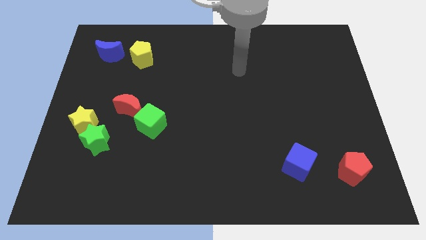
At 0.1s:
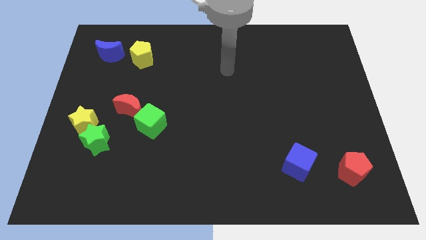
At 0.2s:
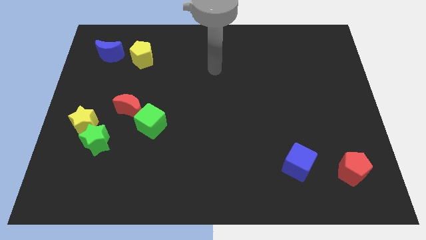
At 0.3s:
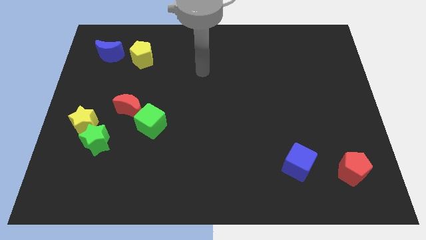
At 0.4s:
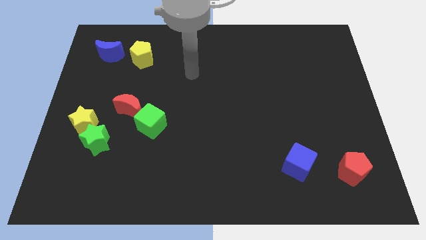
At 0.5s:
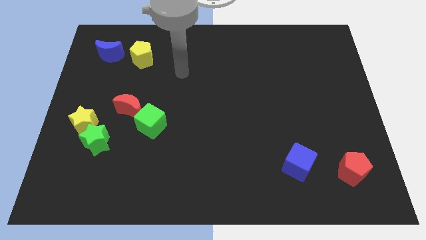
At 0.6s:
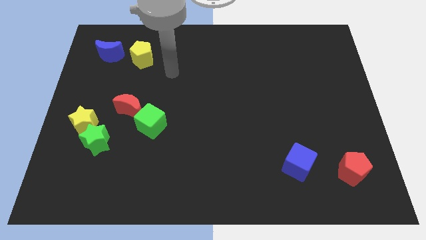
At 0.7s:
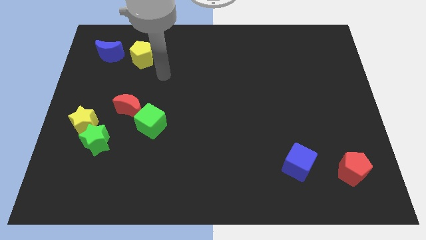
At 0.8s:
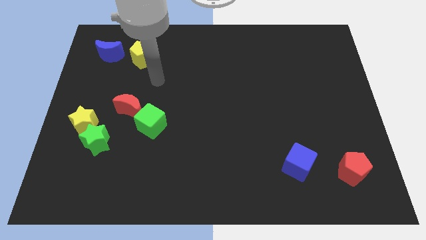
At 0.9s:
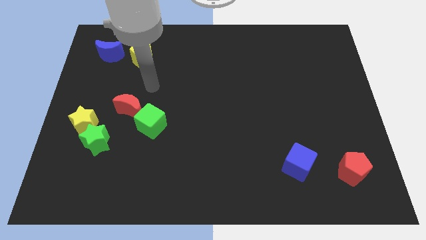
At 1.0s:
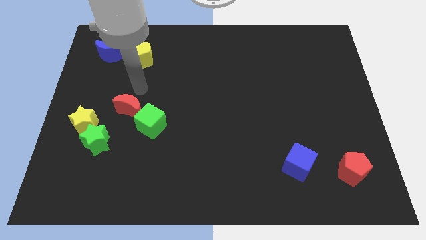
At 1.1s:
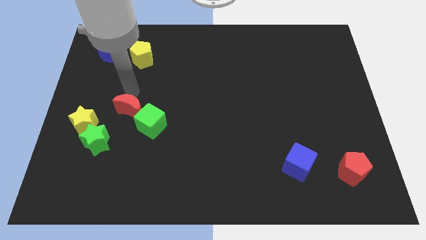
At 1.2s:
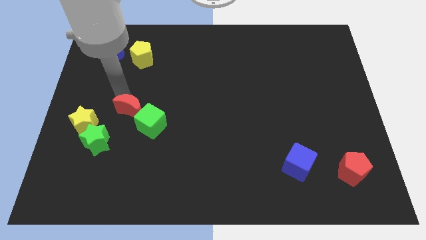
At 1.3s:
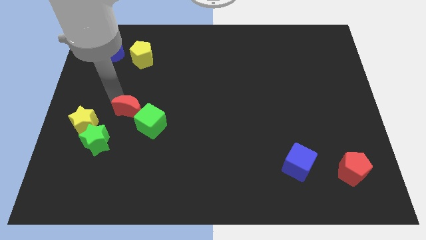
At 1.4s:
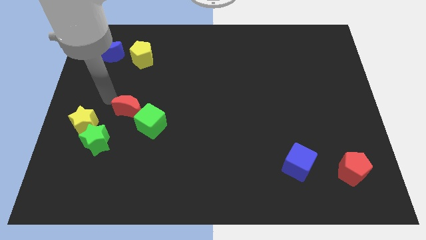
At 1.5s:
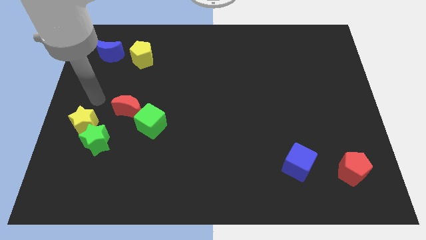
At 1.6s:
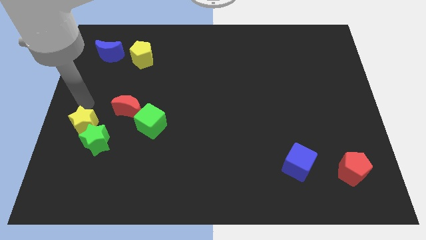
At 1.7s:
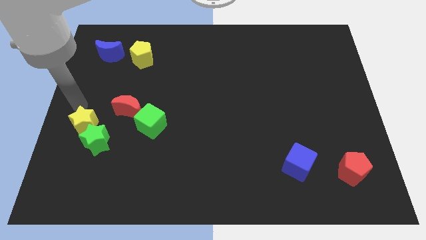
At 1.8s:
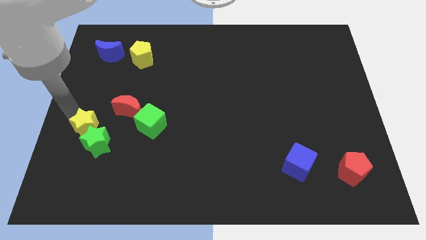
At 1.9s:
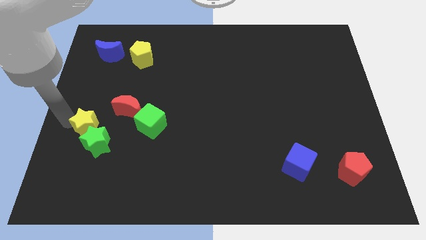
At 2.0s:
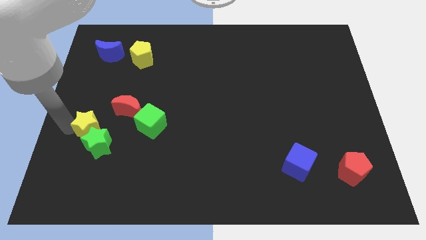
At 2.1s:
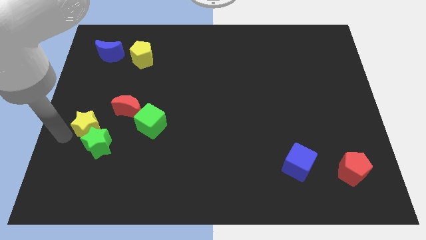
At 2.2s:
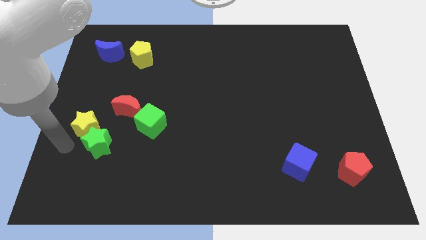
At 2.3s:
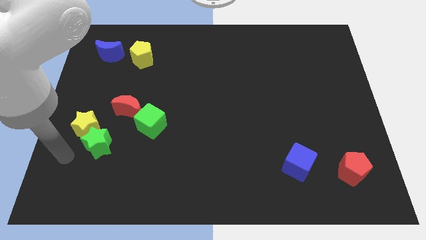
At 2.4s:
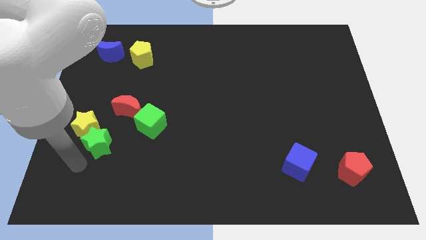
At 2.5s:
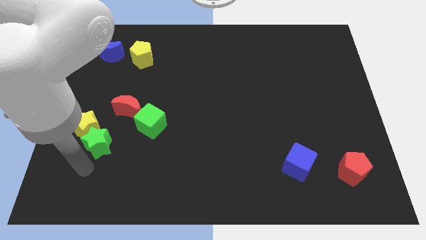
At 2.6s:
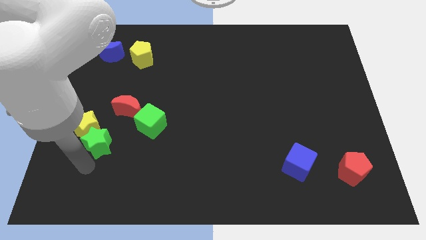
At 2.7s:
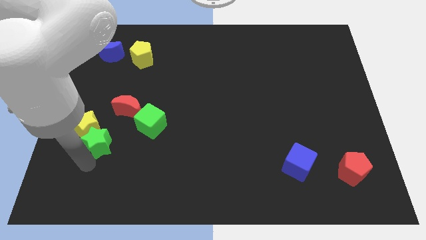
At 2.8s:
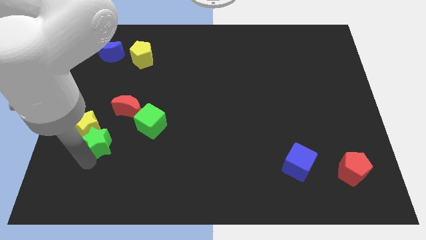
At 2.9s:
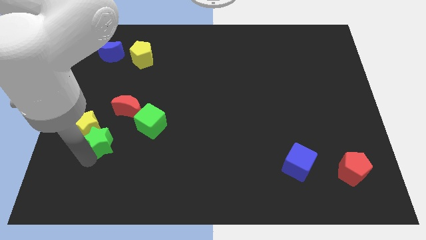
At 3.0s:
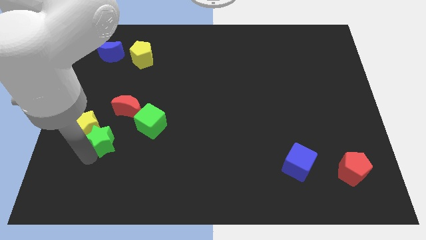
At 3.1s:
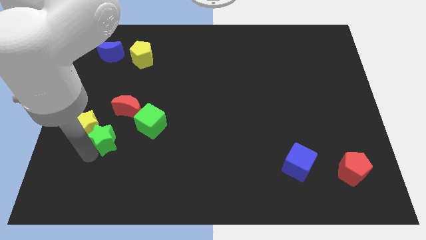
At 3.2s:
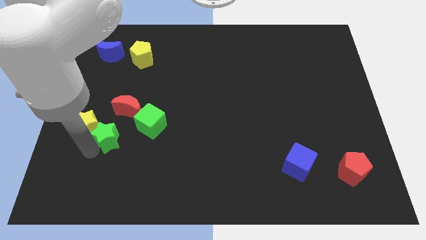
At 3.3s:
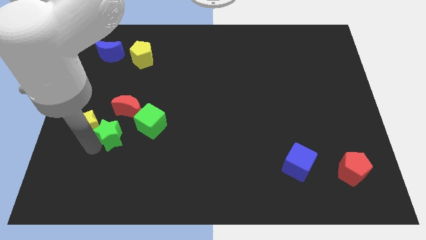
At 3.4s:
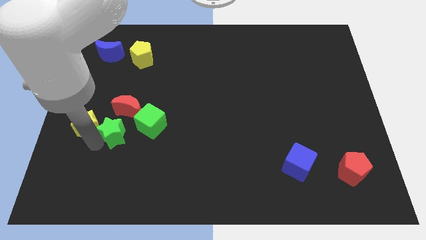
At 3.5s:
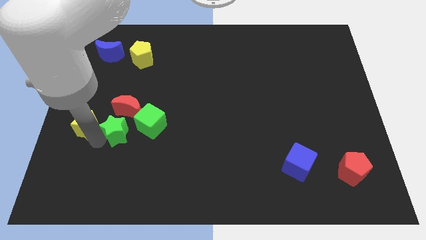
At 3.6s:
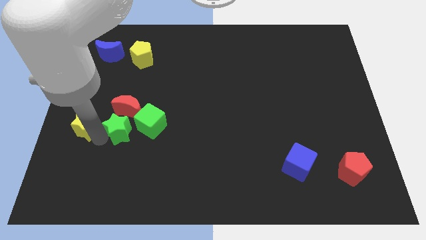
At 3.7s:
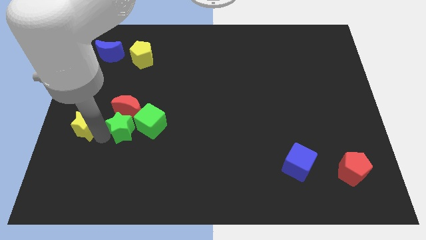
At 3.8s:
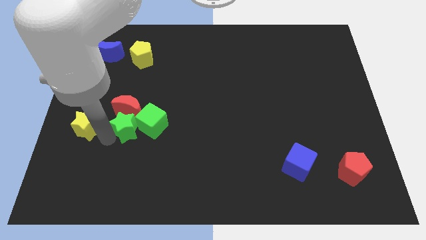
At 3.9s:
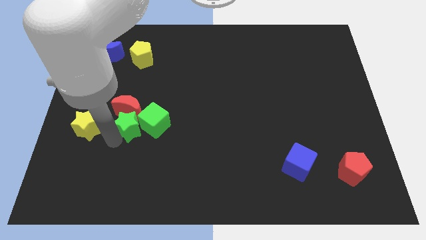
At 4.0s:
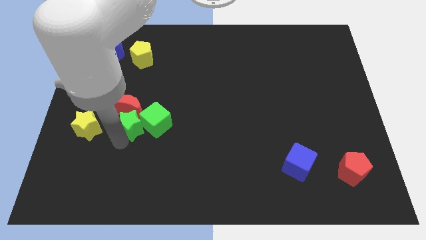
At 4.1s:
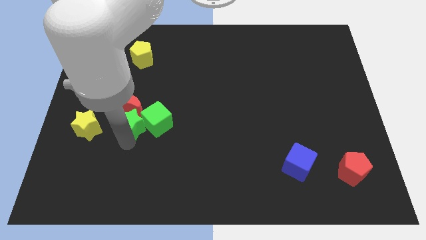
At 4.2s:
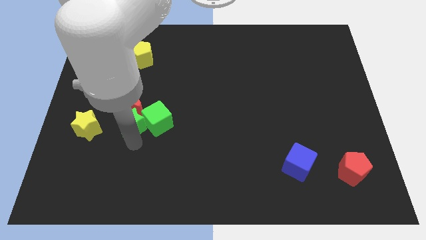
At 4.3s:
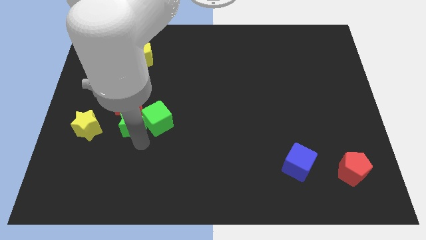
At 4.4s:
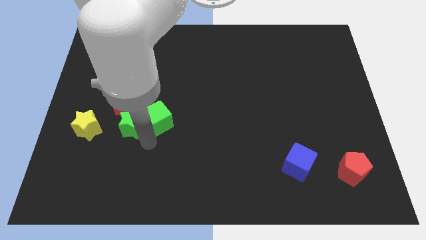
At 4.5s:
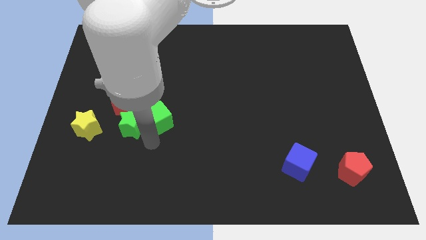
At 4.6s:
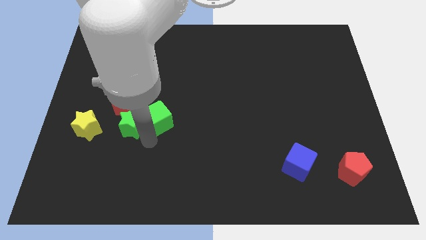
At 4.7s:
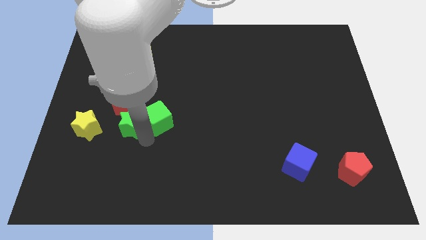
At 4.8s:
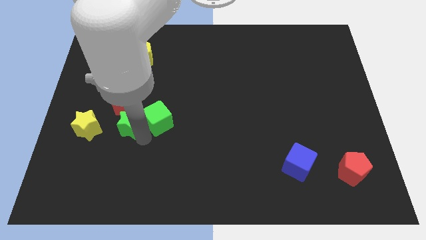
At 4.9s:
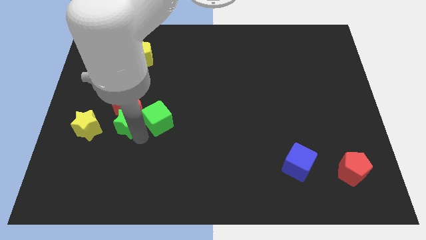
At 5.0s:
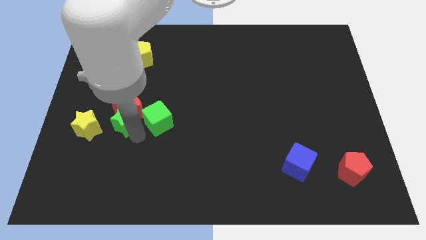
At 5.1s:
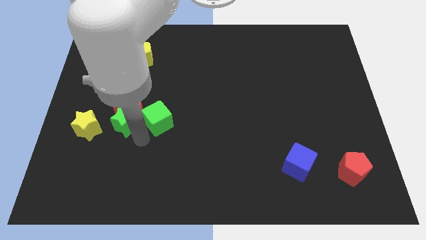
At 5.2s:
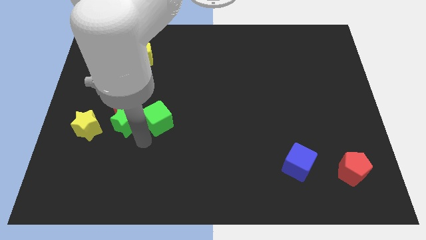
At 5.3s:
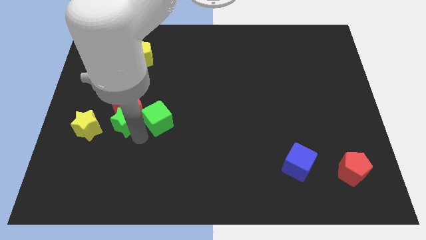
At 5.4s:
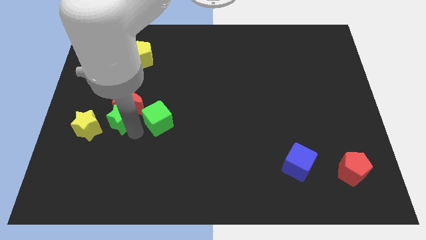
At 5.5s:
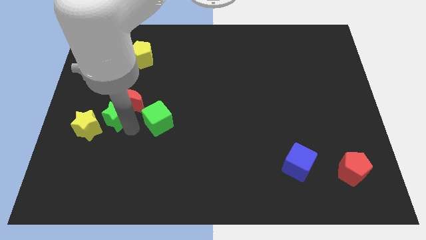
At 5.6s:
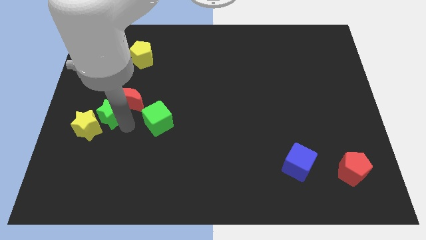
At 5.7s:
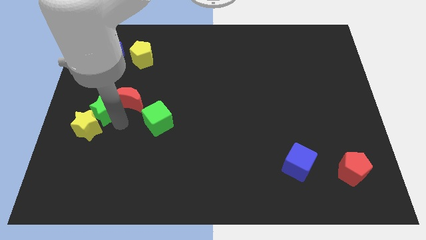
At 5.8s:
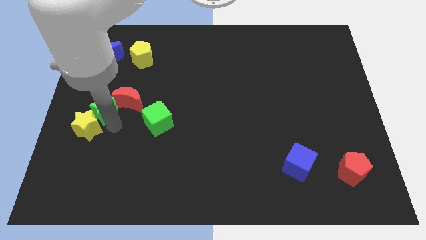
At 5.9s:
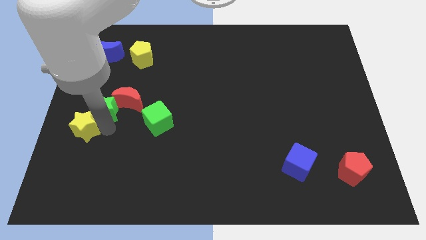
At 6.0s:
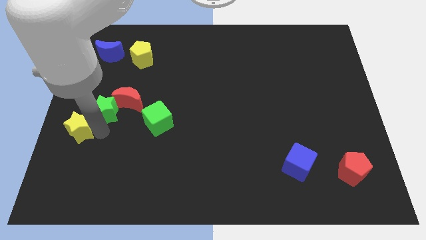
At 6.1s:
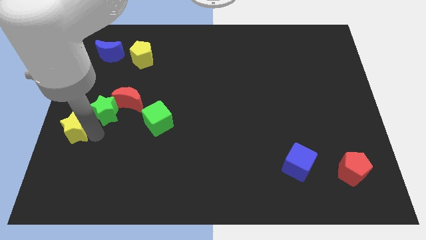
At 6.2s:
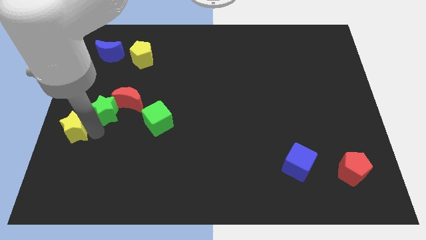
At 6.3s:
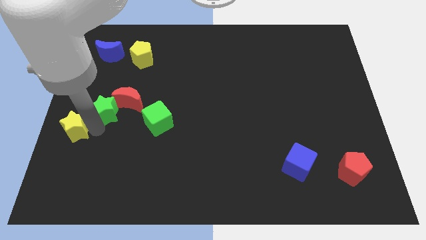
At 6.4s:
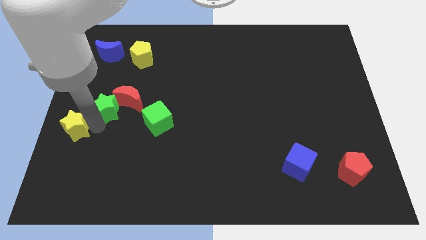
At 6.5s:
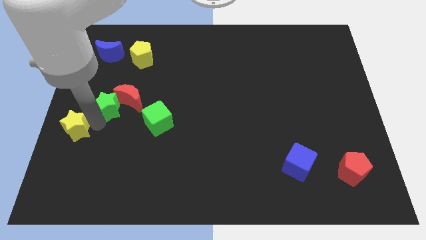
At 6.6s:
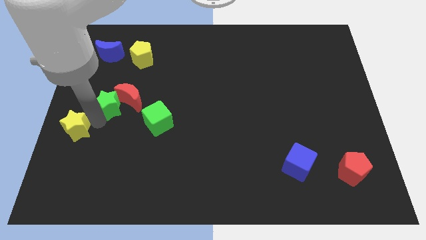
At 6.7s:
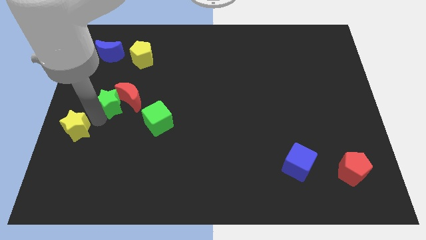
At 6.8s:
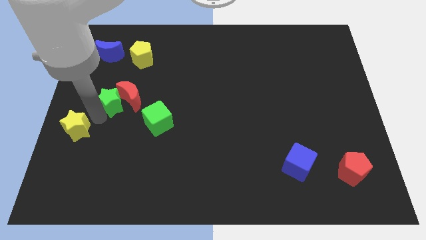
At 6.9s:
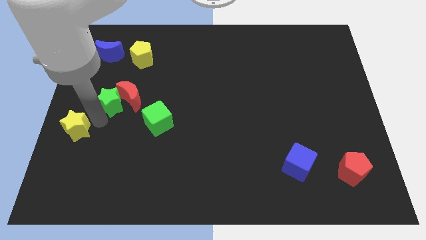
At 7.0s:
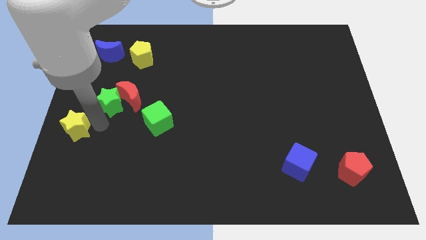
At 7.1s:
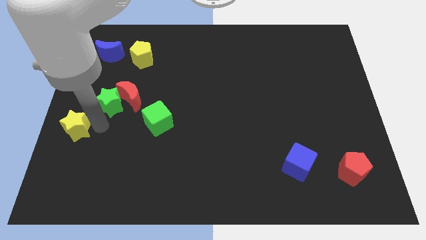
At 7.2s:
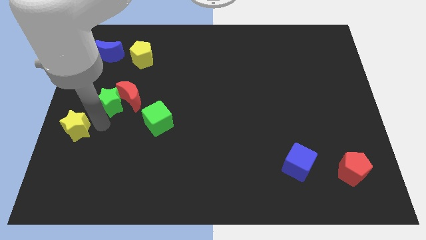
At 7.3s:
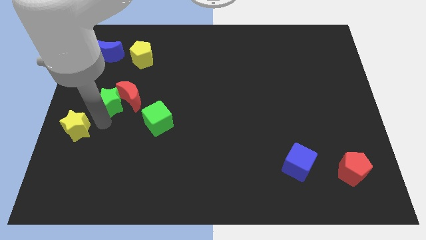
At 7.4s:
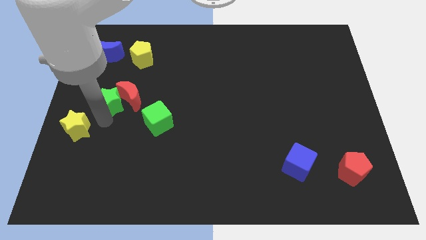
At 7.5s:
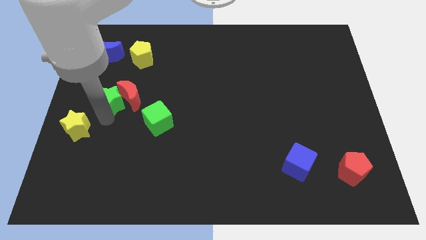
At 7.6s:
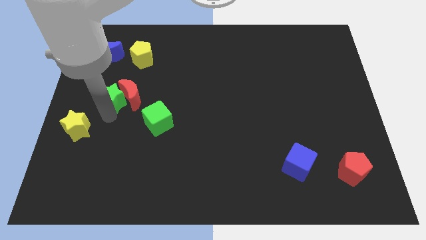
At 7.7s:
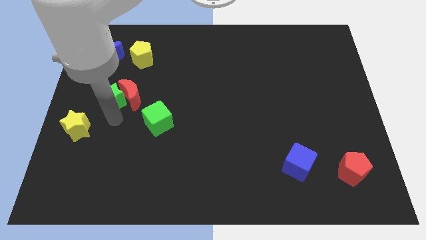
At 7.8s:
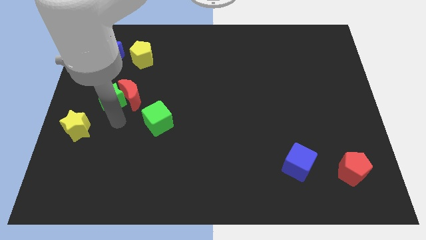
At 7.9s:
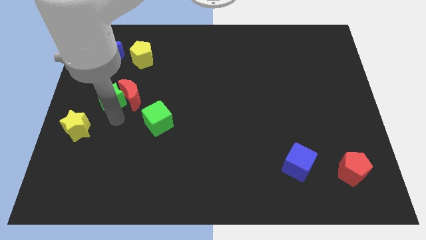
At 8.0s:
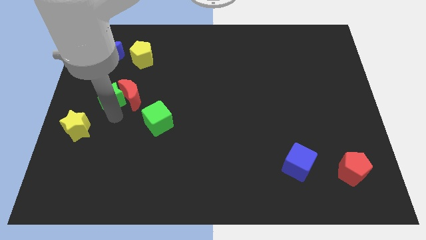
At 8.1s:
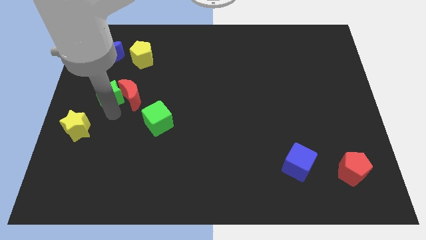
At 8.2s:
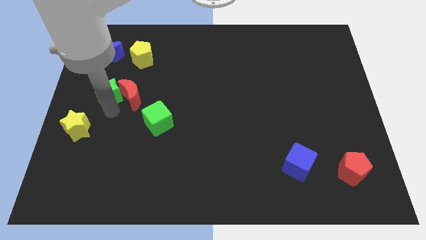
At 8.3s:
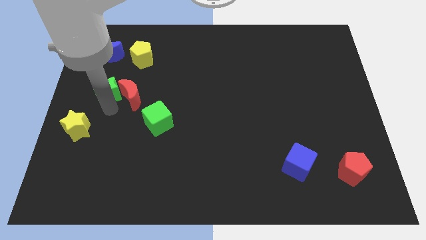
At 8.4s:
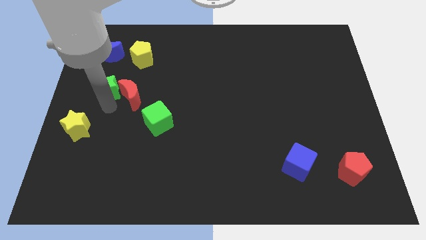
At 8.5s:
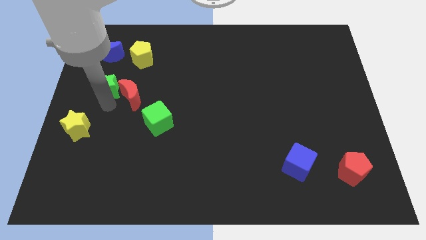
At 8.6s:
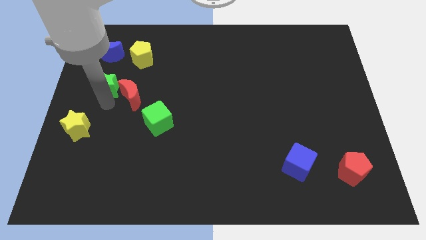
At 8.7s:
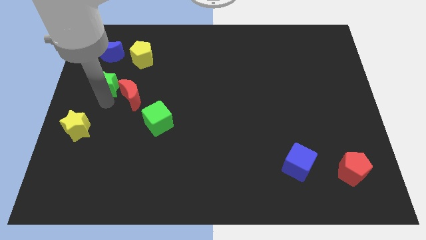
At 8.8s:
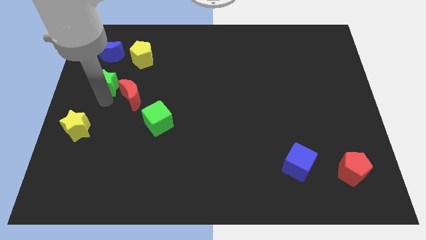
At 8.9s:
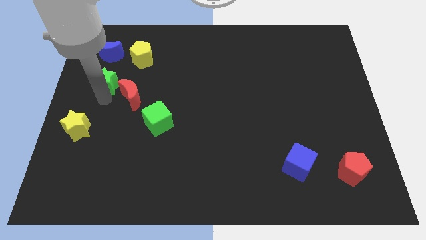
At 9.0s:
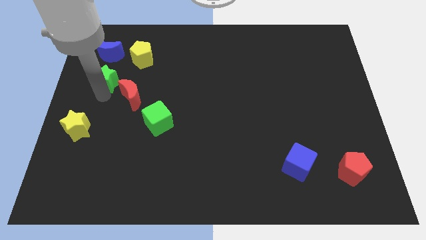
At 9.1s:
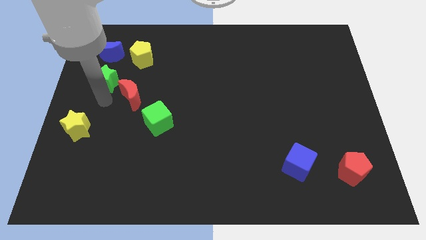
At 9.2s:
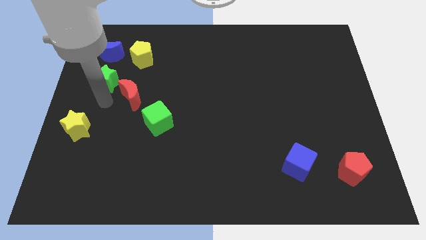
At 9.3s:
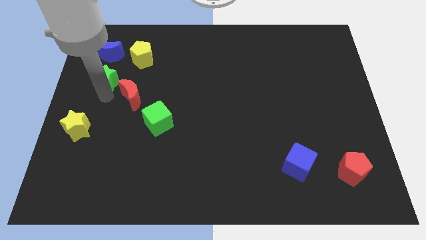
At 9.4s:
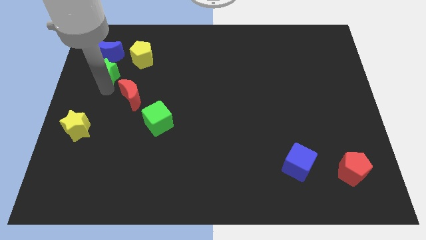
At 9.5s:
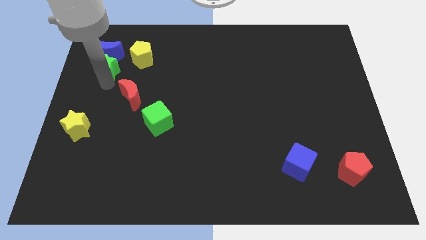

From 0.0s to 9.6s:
move the green star towards the blue moon
